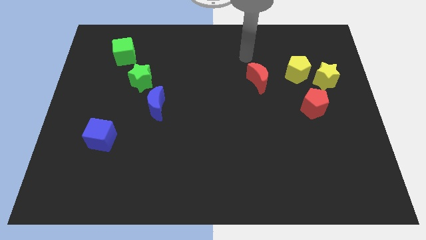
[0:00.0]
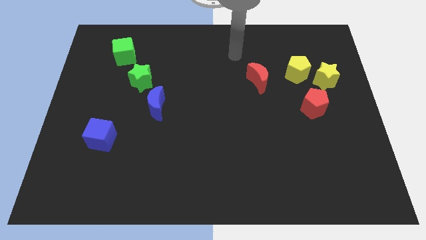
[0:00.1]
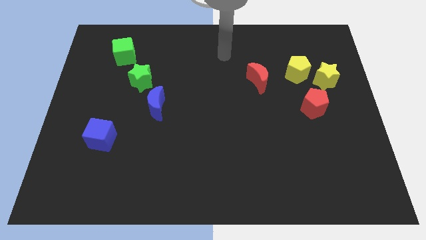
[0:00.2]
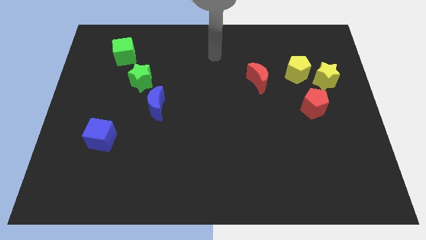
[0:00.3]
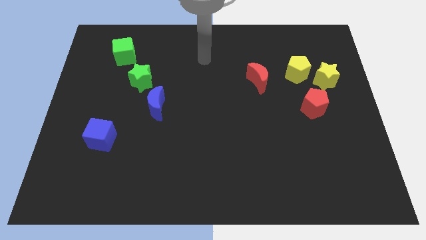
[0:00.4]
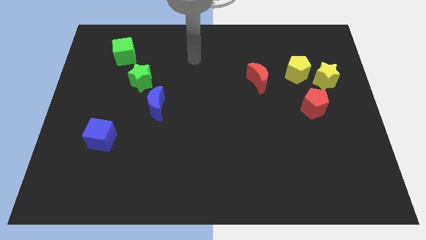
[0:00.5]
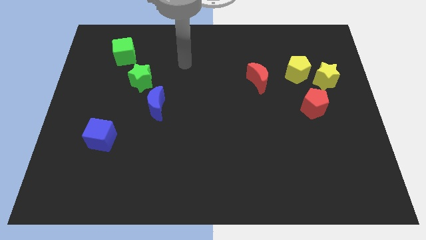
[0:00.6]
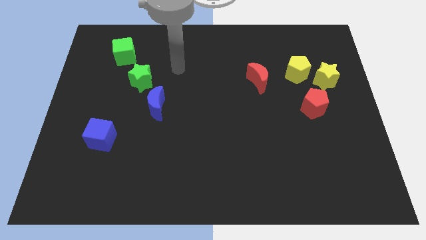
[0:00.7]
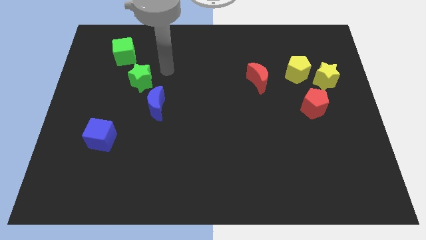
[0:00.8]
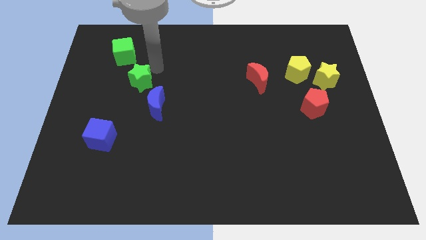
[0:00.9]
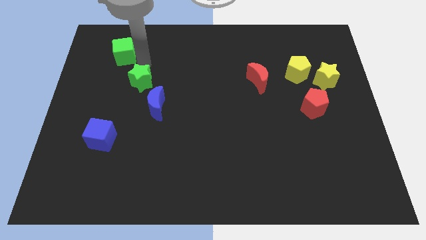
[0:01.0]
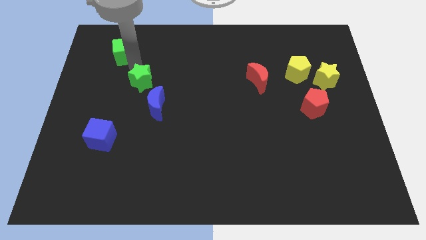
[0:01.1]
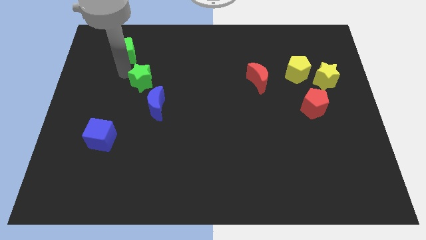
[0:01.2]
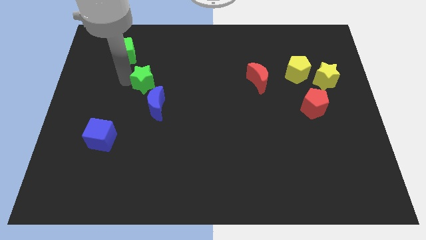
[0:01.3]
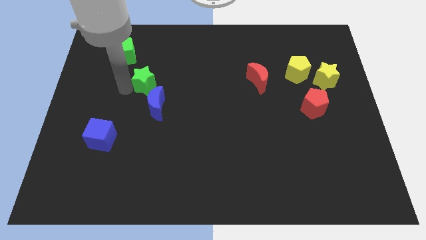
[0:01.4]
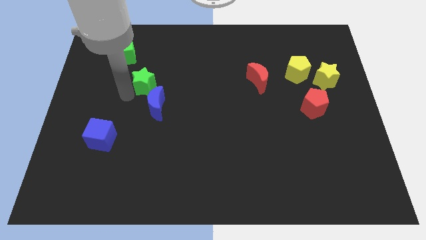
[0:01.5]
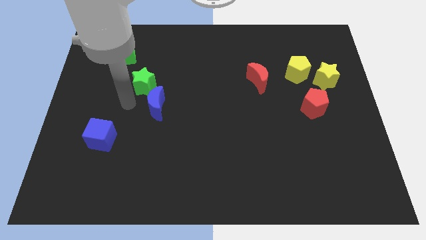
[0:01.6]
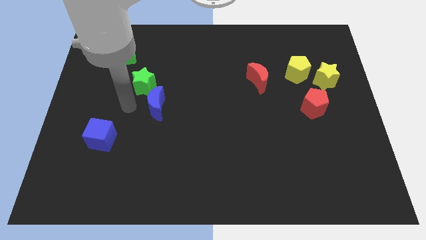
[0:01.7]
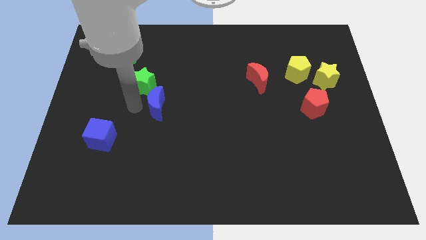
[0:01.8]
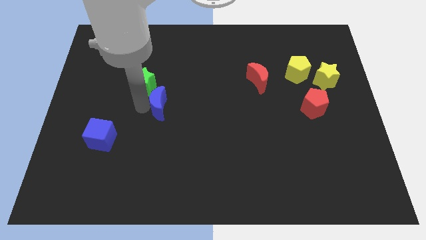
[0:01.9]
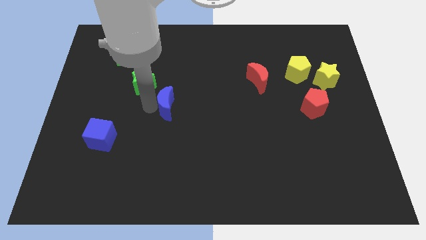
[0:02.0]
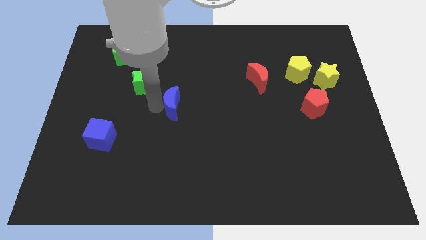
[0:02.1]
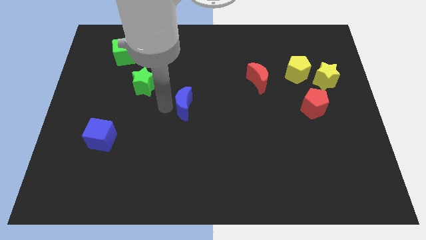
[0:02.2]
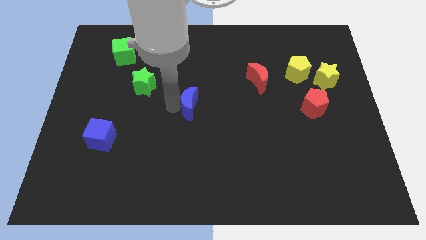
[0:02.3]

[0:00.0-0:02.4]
move the blue moon a little to the right

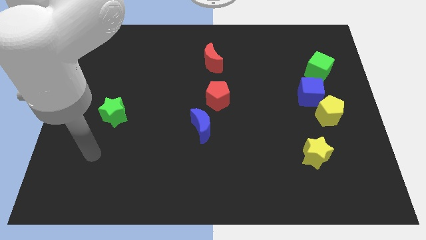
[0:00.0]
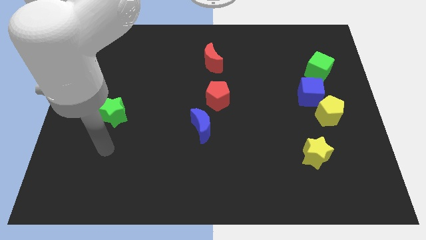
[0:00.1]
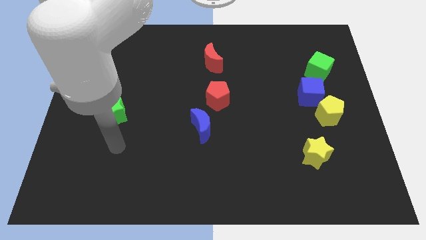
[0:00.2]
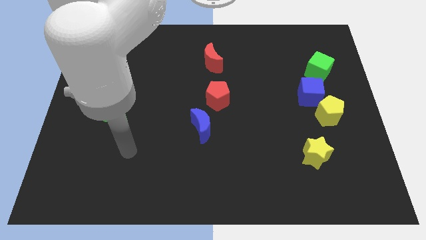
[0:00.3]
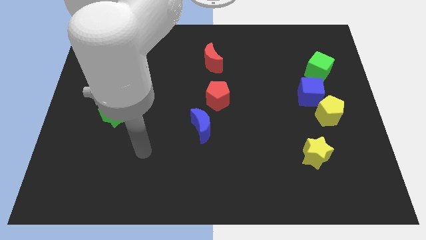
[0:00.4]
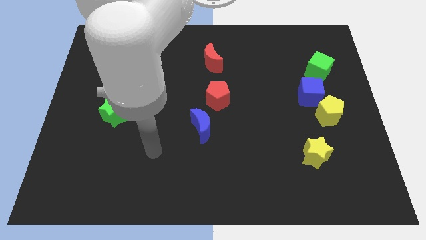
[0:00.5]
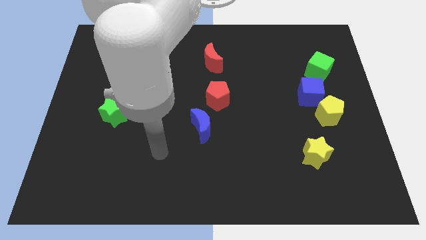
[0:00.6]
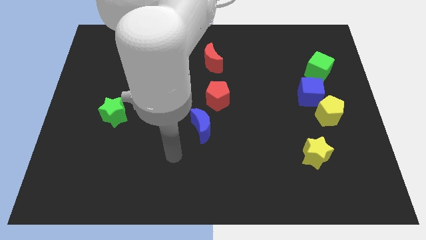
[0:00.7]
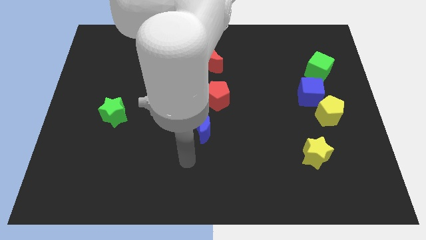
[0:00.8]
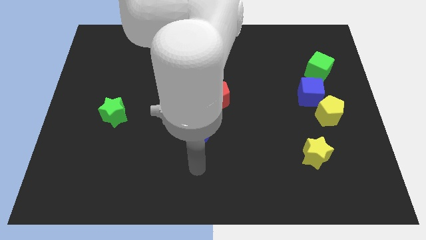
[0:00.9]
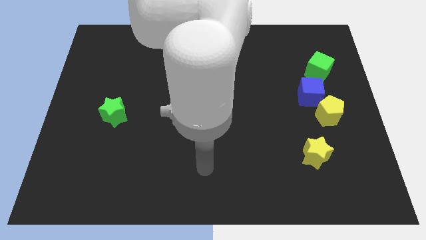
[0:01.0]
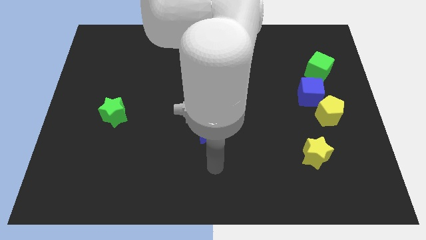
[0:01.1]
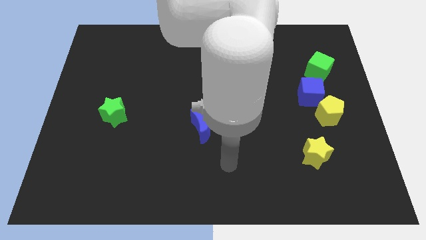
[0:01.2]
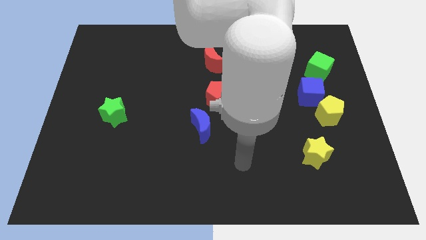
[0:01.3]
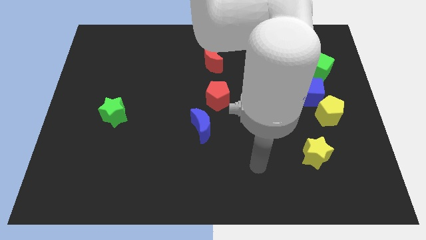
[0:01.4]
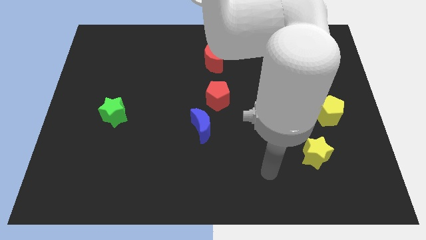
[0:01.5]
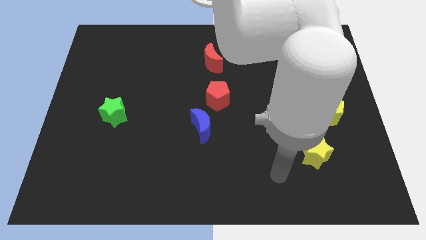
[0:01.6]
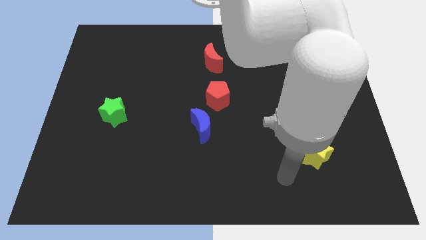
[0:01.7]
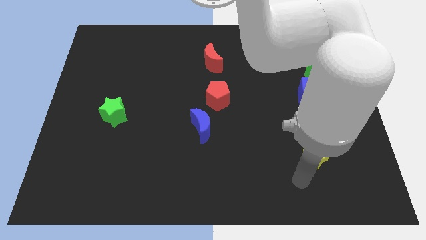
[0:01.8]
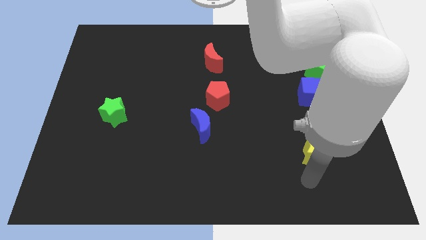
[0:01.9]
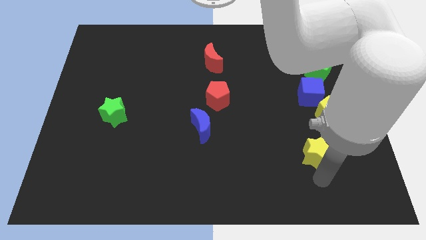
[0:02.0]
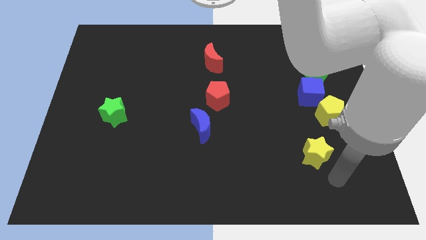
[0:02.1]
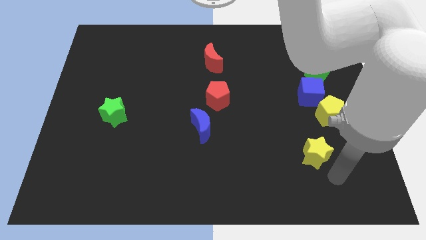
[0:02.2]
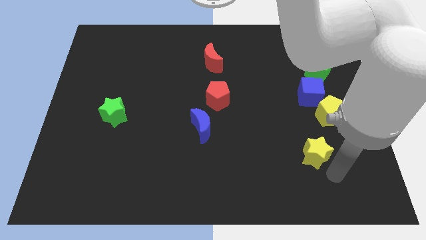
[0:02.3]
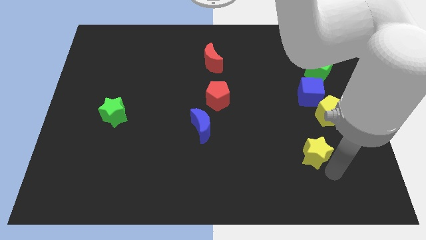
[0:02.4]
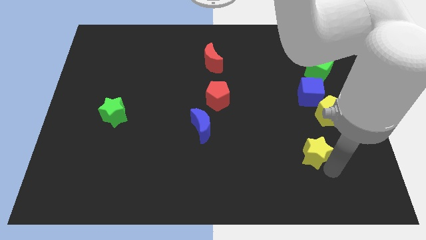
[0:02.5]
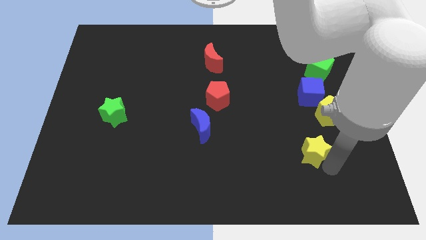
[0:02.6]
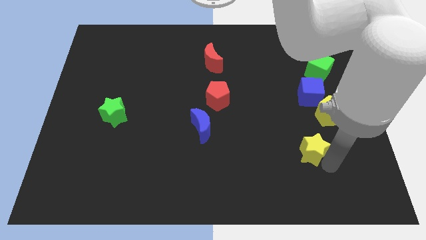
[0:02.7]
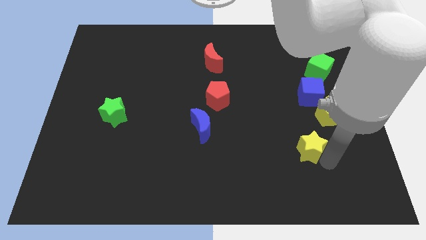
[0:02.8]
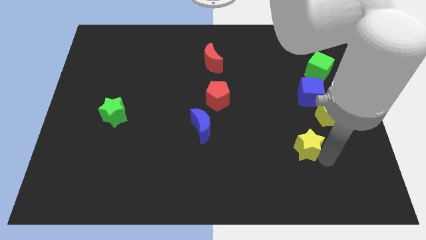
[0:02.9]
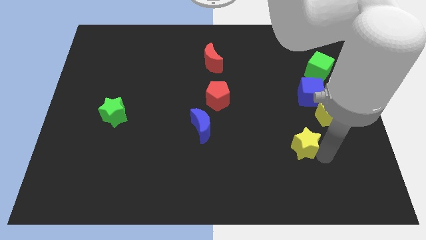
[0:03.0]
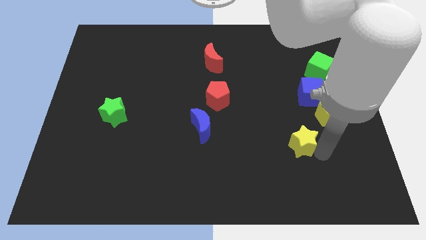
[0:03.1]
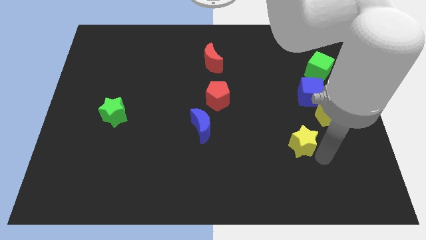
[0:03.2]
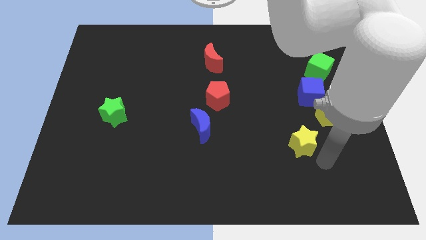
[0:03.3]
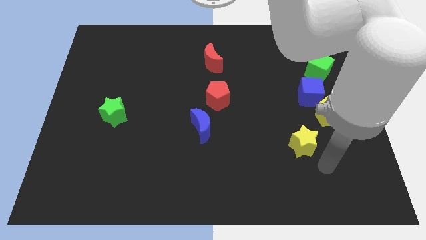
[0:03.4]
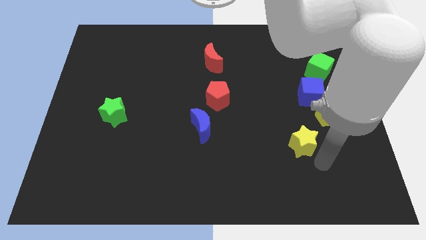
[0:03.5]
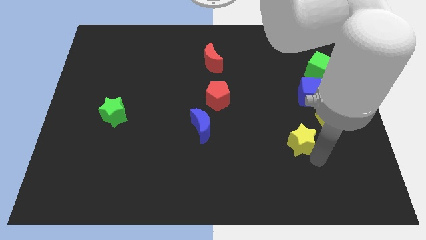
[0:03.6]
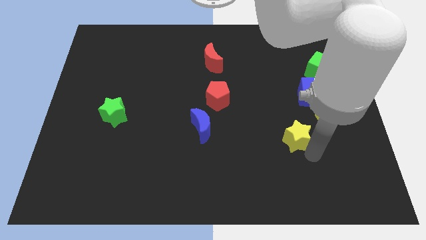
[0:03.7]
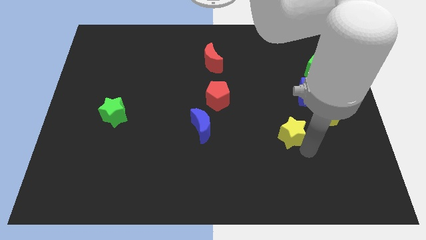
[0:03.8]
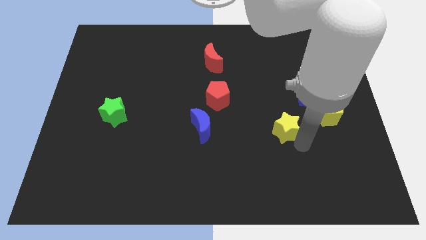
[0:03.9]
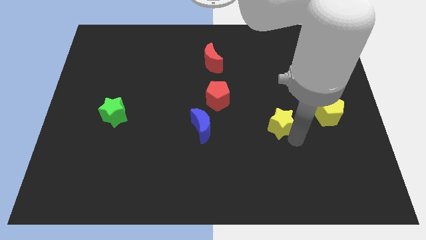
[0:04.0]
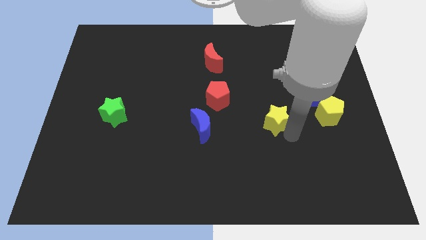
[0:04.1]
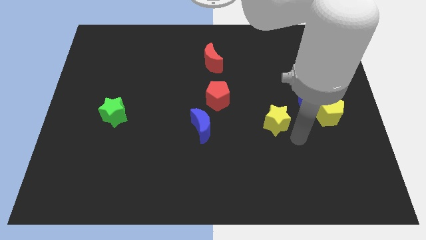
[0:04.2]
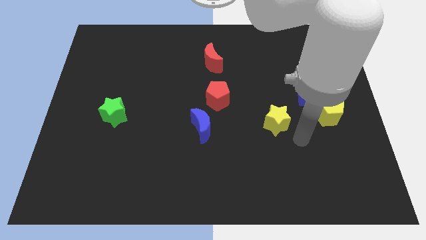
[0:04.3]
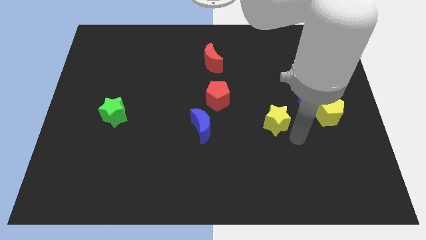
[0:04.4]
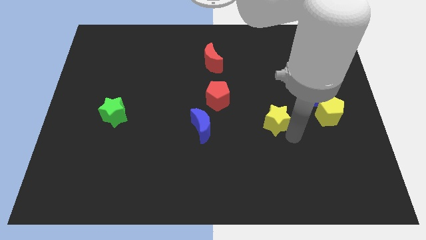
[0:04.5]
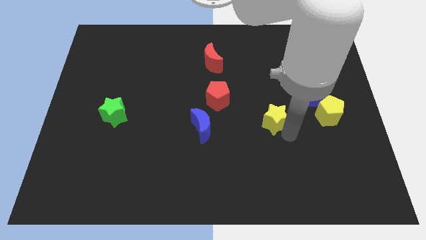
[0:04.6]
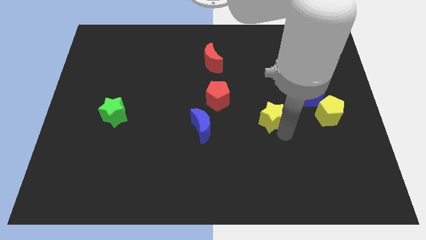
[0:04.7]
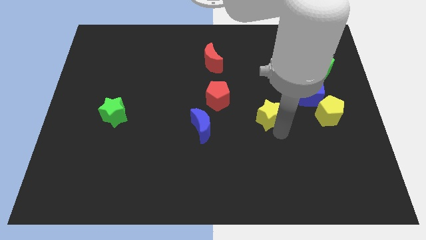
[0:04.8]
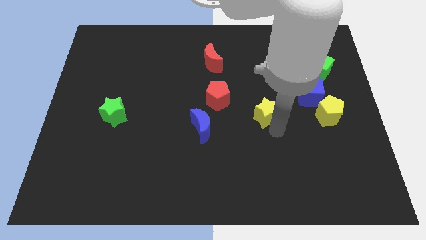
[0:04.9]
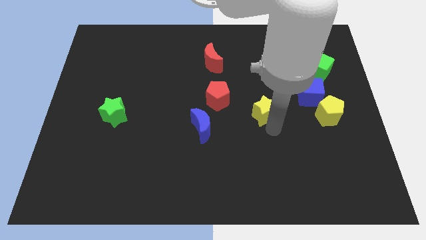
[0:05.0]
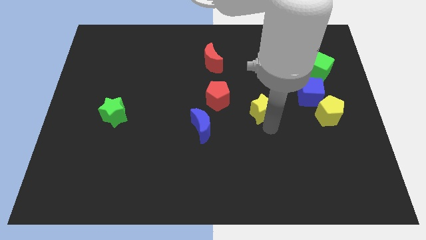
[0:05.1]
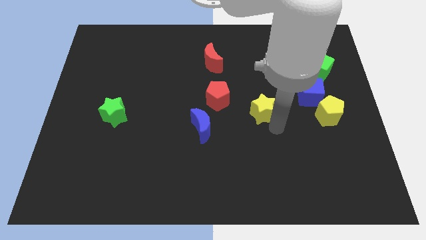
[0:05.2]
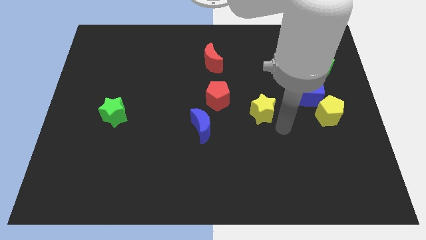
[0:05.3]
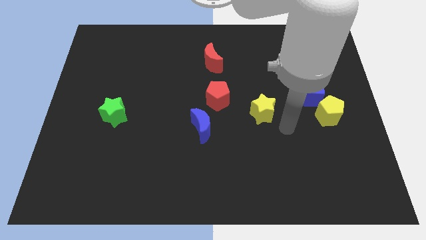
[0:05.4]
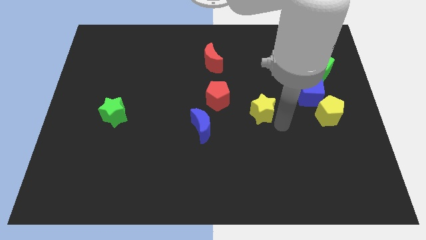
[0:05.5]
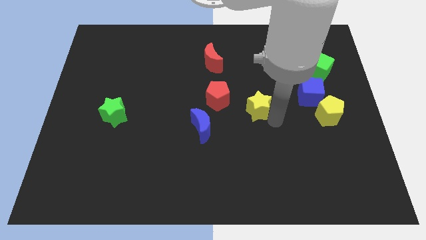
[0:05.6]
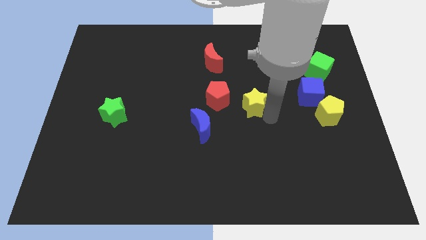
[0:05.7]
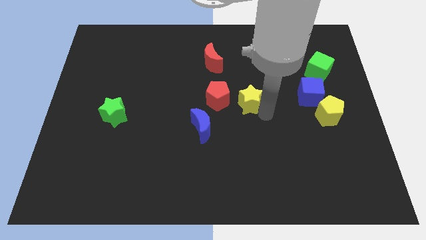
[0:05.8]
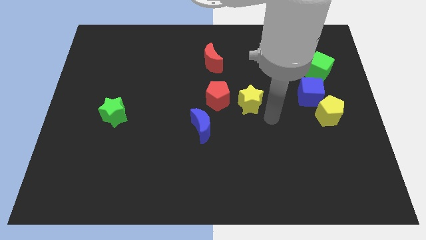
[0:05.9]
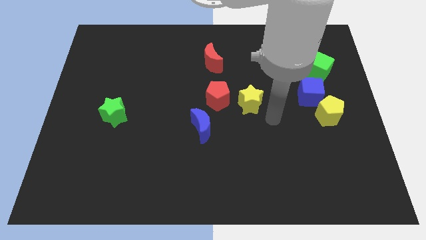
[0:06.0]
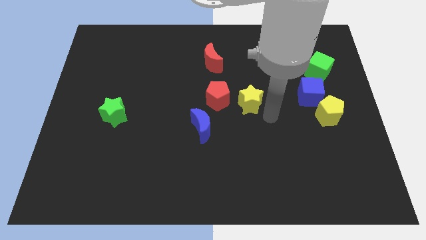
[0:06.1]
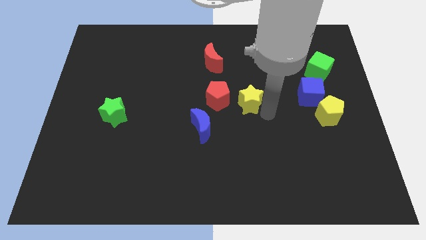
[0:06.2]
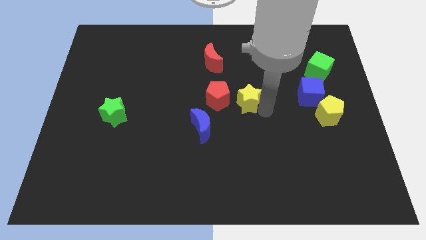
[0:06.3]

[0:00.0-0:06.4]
push the yellow star up and to the left diagonally
